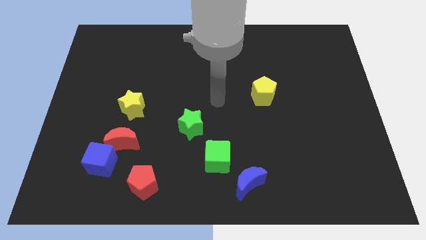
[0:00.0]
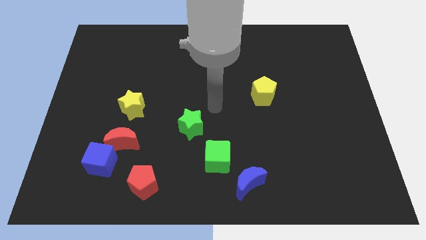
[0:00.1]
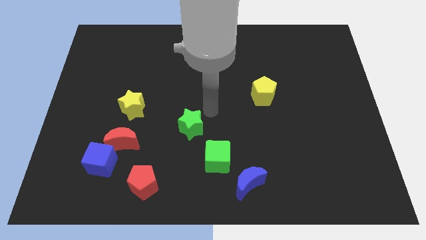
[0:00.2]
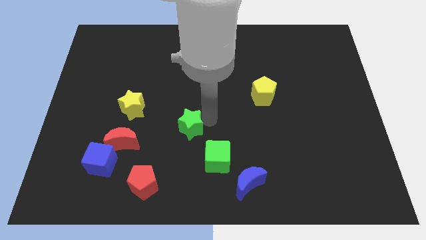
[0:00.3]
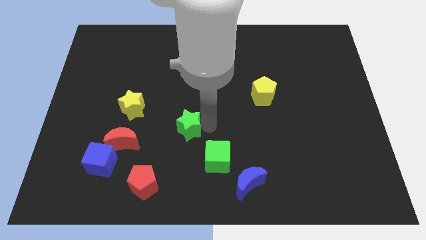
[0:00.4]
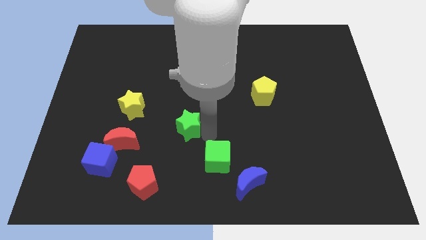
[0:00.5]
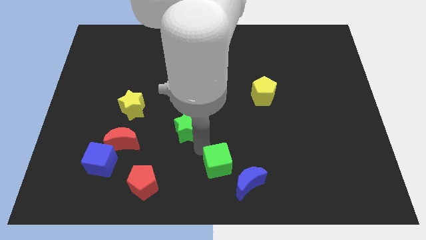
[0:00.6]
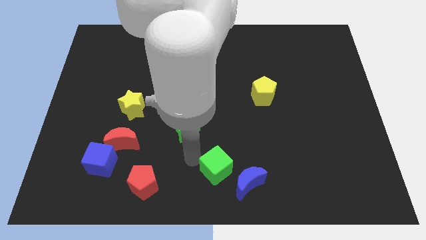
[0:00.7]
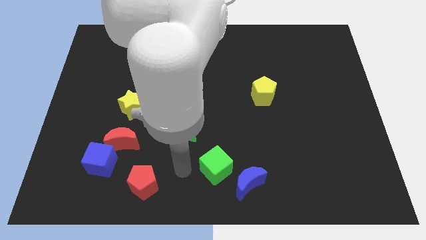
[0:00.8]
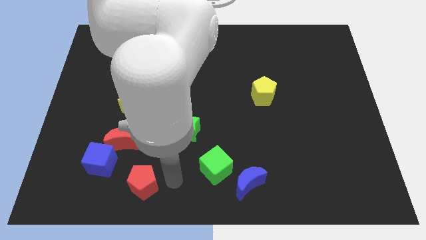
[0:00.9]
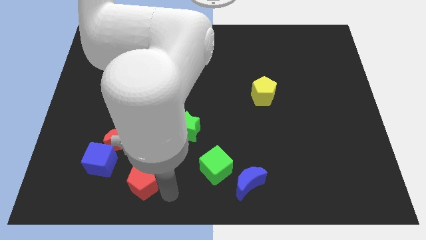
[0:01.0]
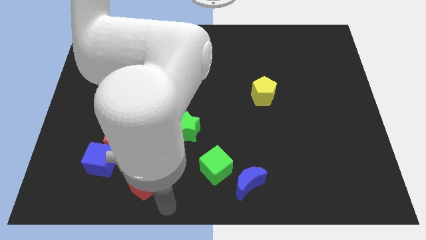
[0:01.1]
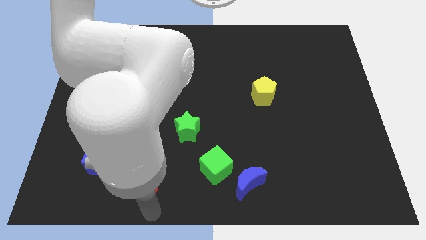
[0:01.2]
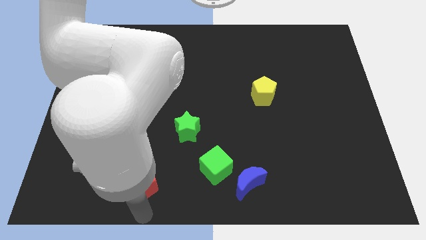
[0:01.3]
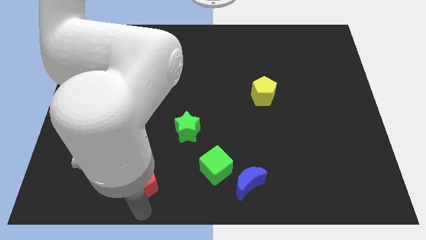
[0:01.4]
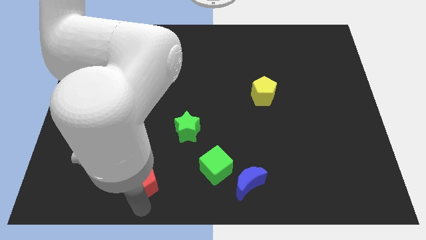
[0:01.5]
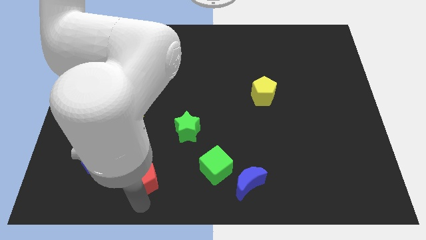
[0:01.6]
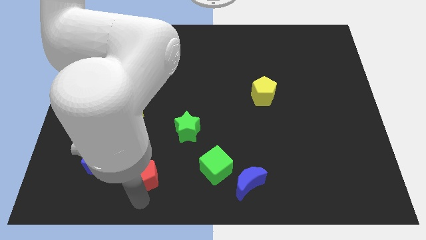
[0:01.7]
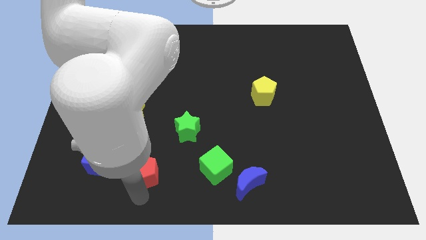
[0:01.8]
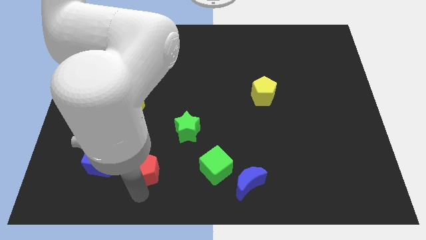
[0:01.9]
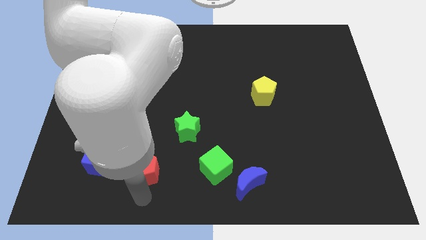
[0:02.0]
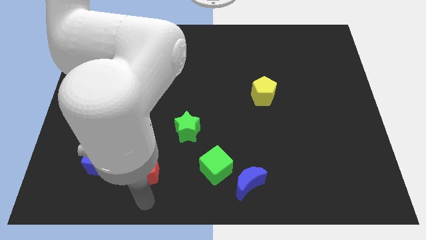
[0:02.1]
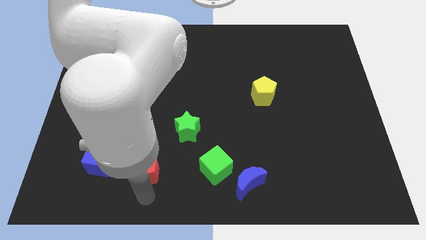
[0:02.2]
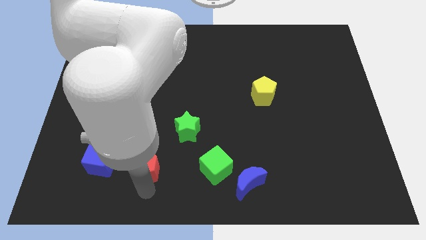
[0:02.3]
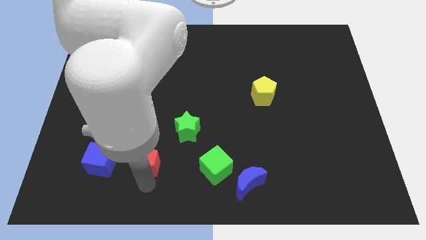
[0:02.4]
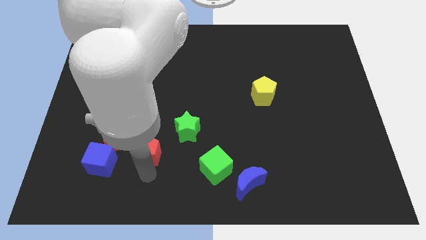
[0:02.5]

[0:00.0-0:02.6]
move the red pentagon a little bit upwards

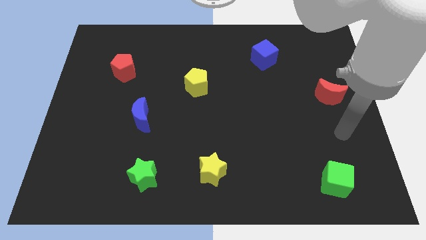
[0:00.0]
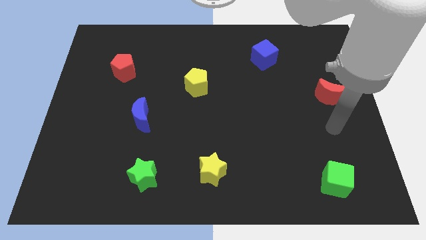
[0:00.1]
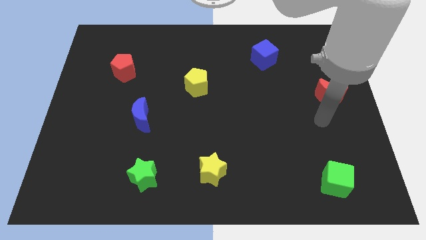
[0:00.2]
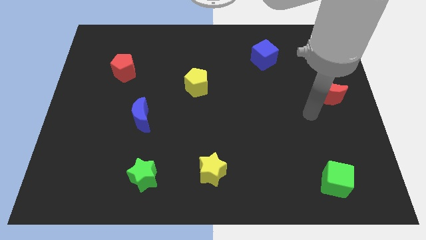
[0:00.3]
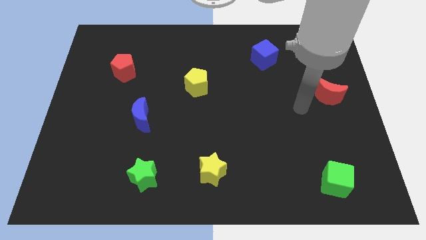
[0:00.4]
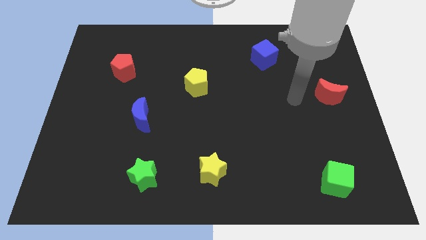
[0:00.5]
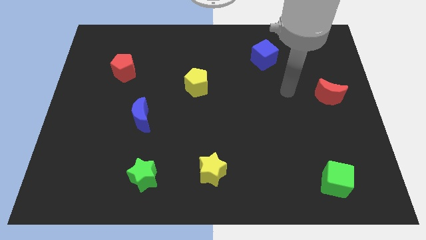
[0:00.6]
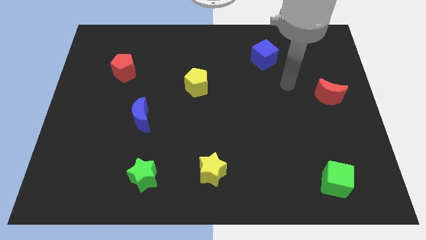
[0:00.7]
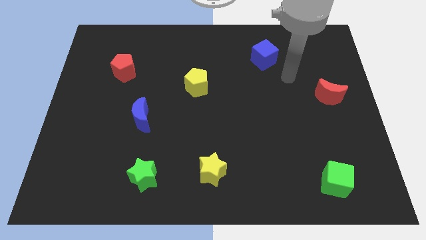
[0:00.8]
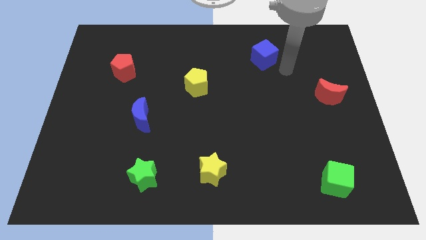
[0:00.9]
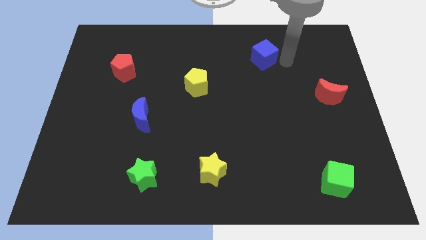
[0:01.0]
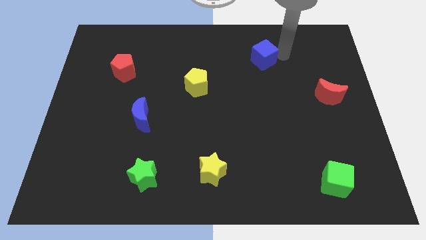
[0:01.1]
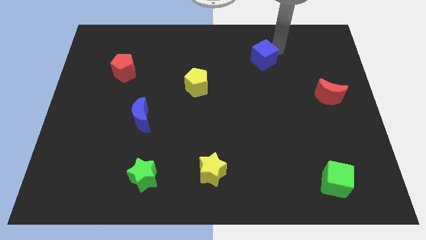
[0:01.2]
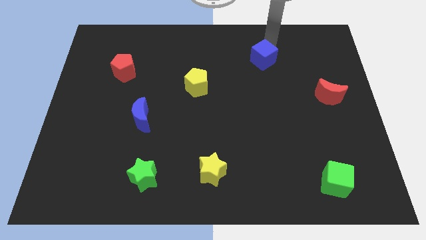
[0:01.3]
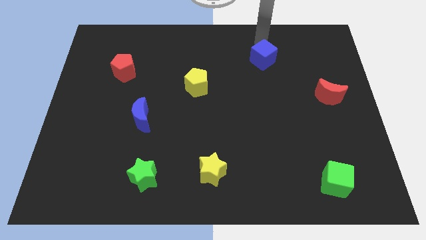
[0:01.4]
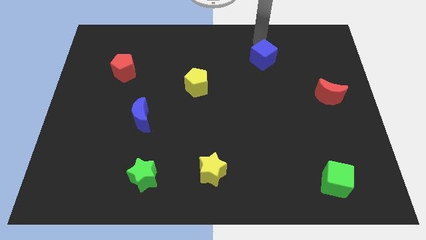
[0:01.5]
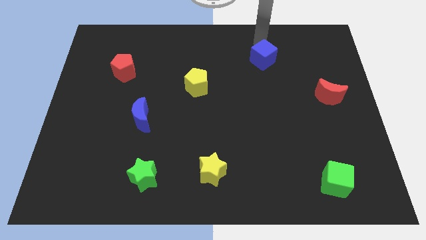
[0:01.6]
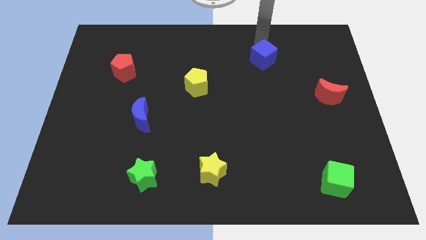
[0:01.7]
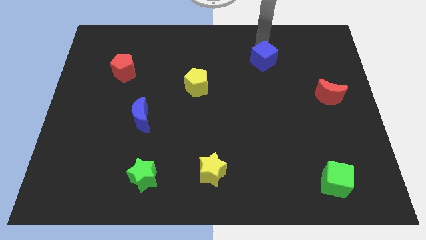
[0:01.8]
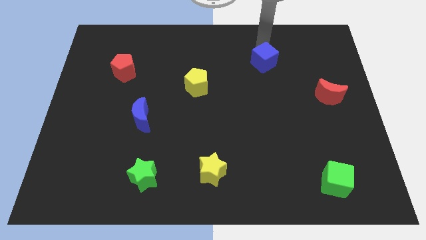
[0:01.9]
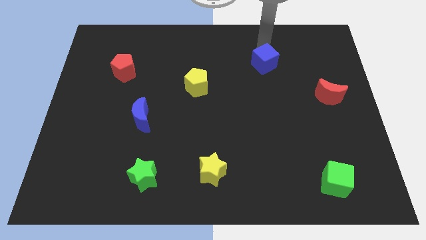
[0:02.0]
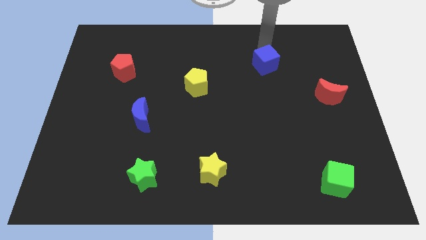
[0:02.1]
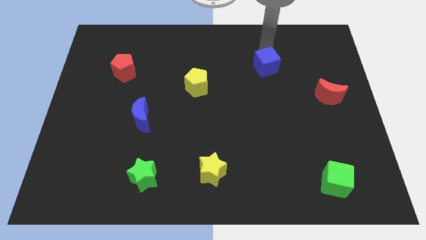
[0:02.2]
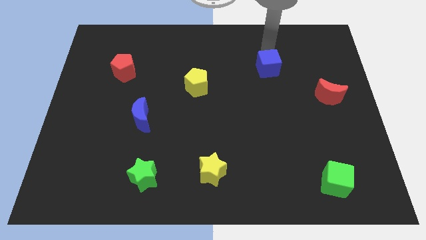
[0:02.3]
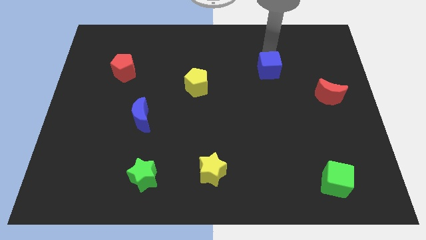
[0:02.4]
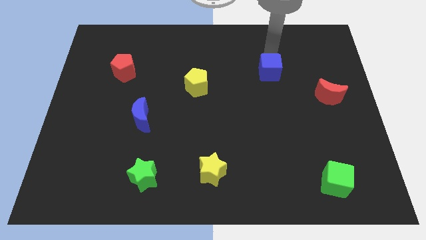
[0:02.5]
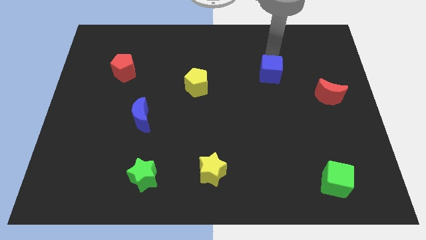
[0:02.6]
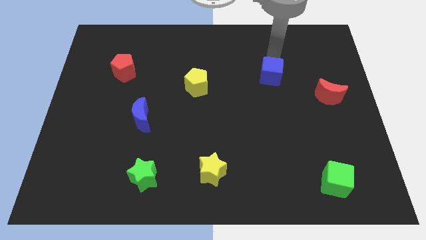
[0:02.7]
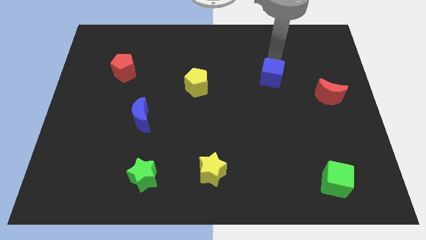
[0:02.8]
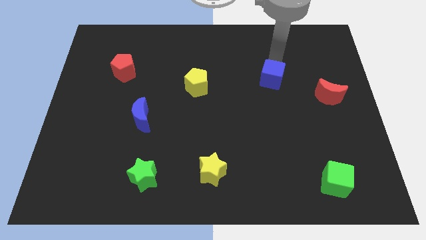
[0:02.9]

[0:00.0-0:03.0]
slightly slide the blue cube downwards

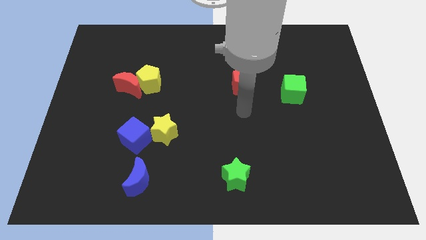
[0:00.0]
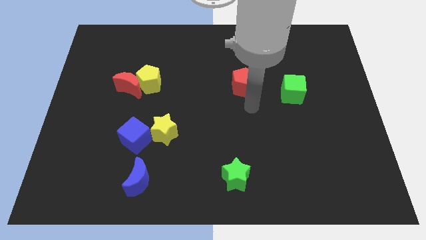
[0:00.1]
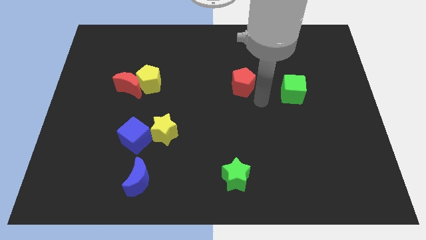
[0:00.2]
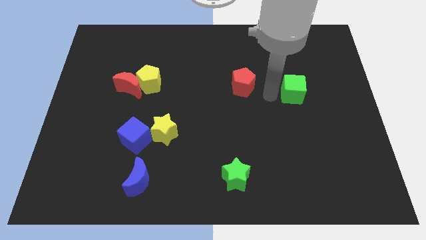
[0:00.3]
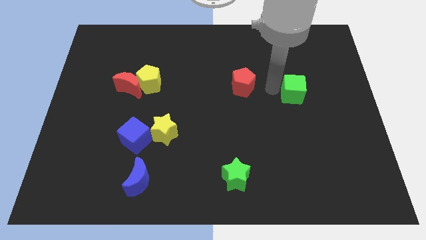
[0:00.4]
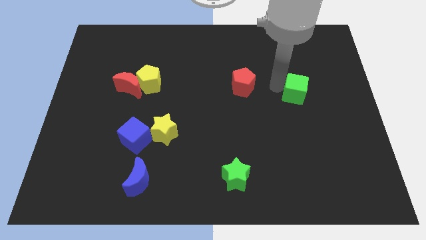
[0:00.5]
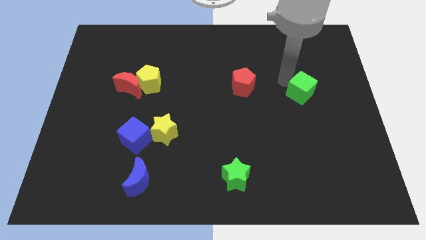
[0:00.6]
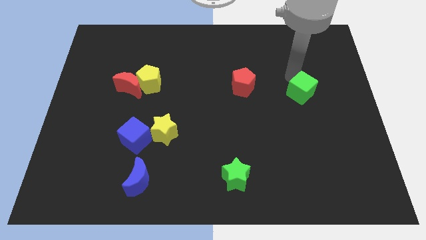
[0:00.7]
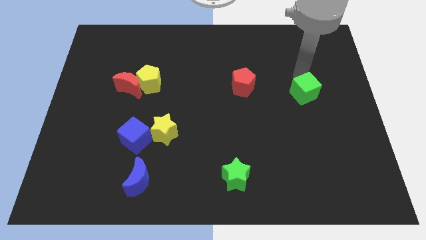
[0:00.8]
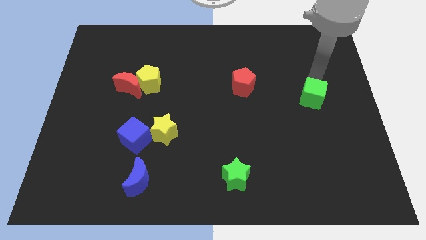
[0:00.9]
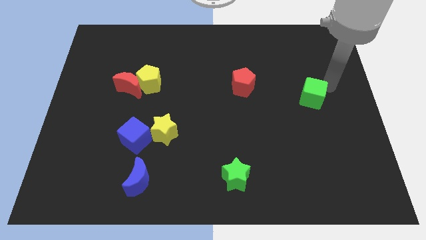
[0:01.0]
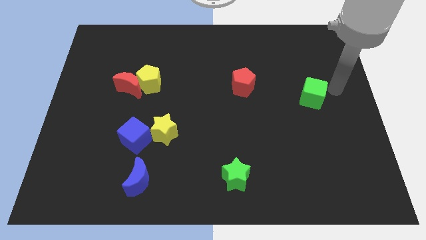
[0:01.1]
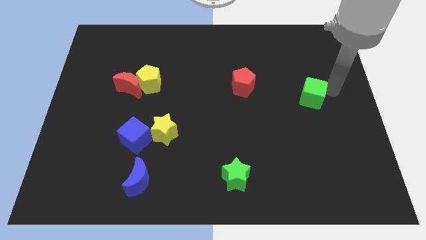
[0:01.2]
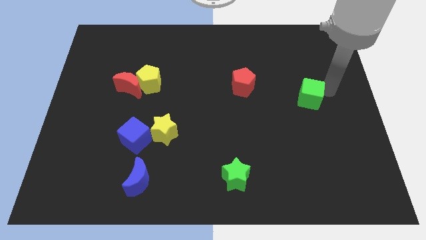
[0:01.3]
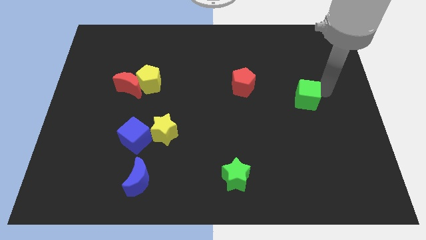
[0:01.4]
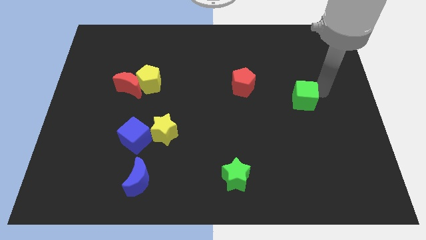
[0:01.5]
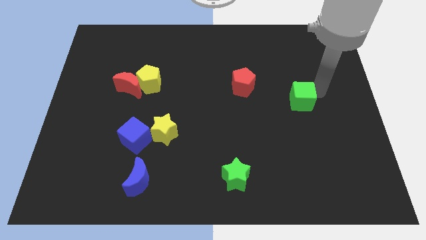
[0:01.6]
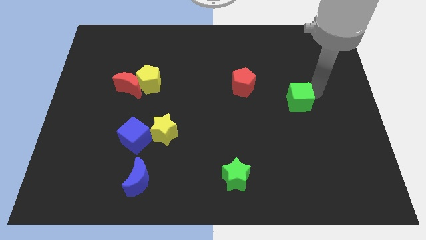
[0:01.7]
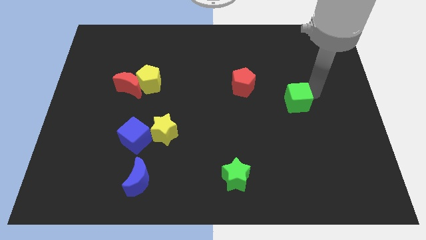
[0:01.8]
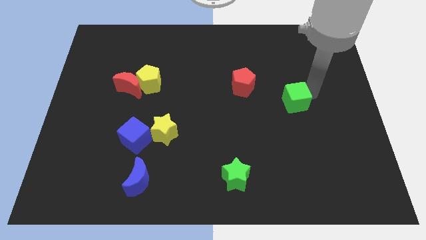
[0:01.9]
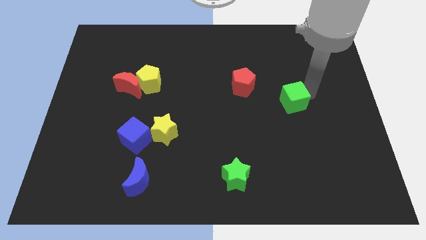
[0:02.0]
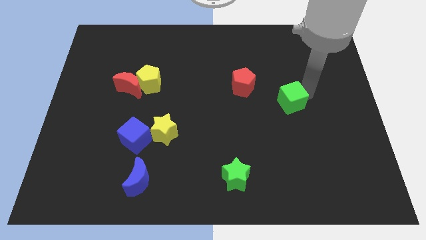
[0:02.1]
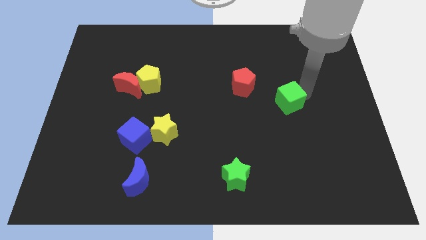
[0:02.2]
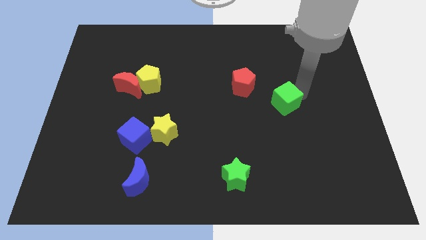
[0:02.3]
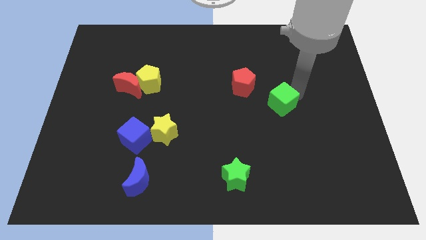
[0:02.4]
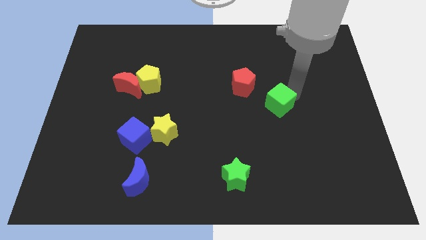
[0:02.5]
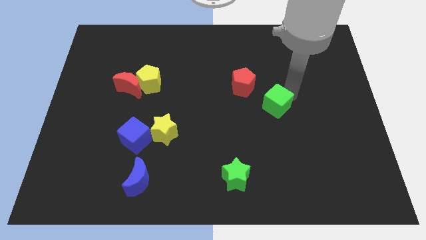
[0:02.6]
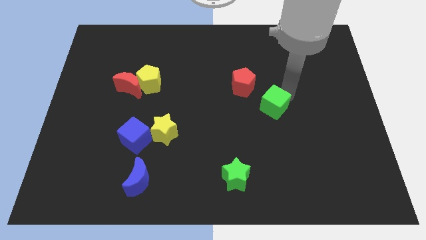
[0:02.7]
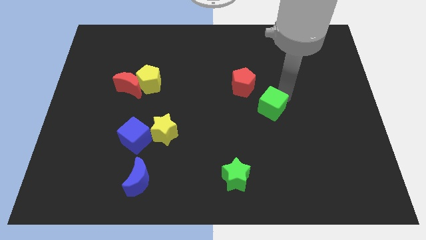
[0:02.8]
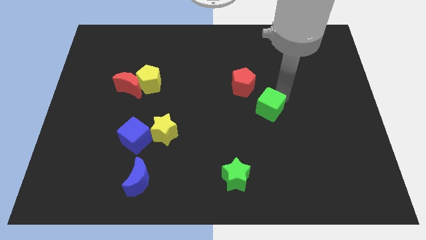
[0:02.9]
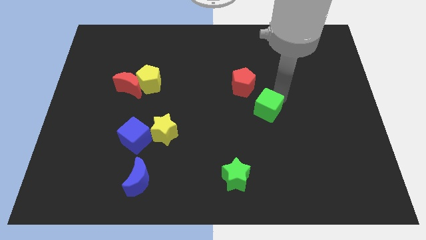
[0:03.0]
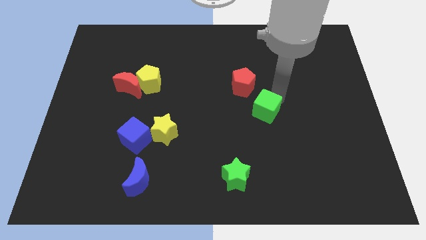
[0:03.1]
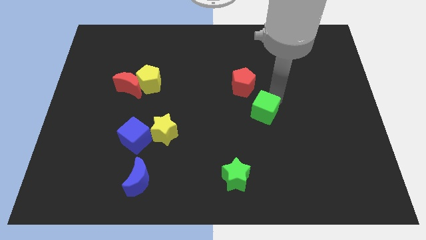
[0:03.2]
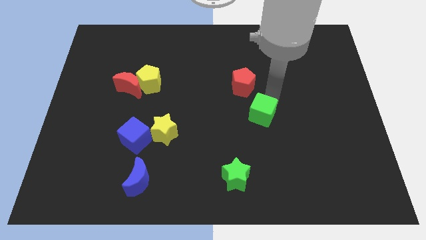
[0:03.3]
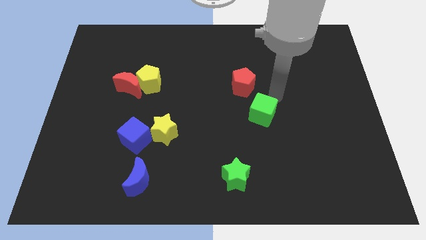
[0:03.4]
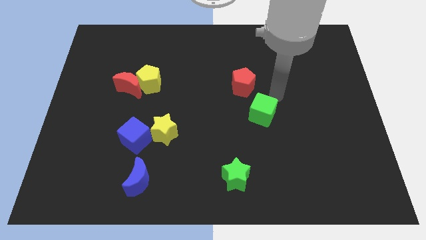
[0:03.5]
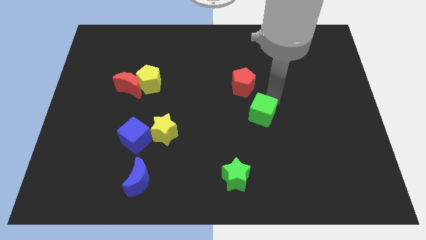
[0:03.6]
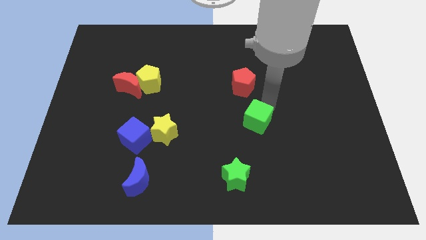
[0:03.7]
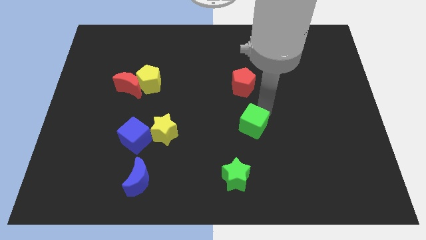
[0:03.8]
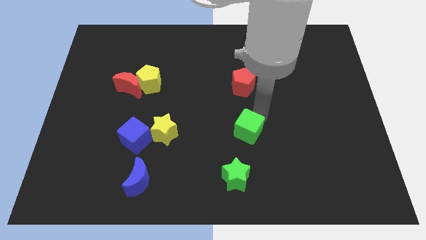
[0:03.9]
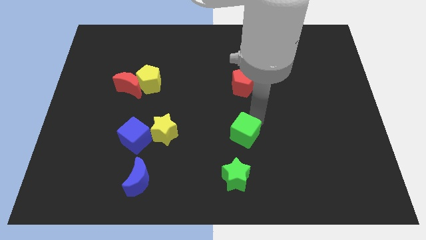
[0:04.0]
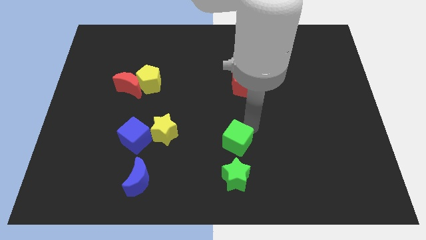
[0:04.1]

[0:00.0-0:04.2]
push the green cube down and to the left diagonally
